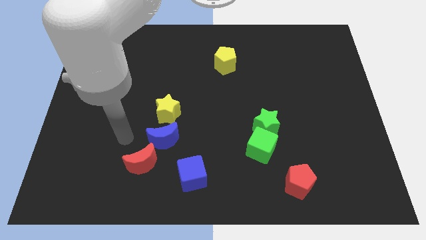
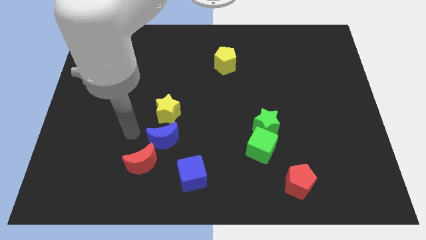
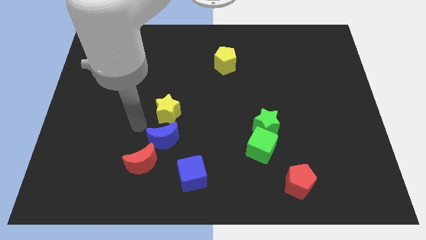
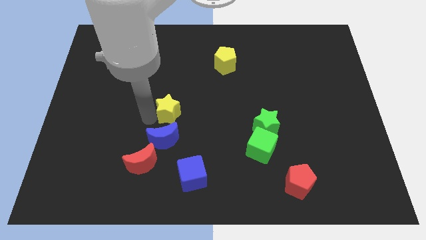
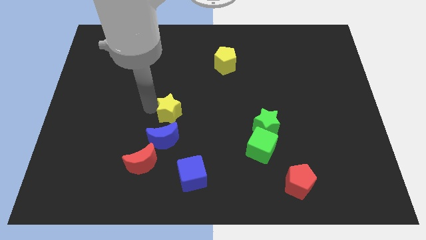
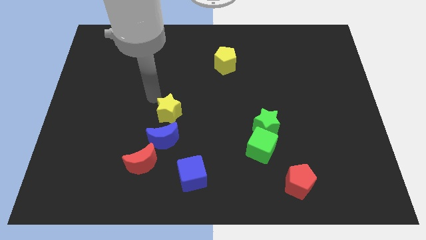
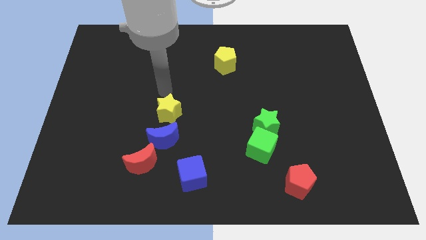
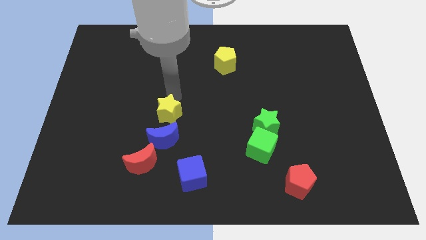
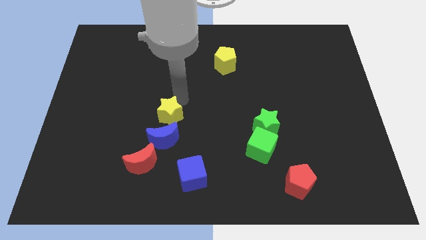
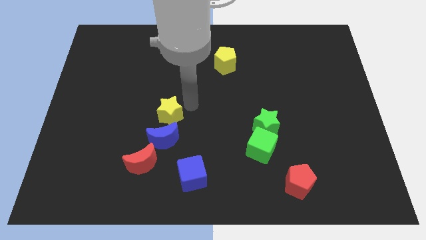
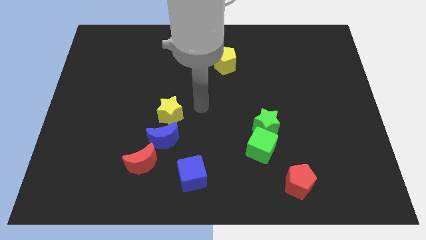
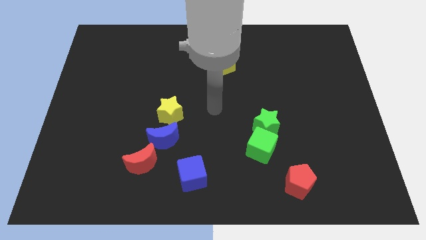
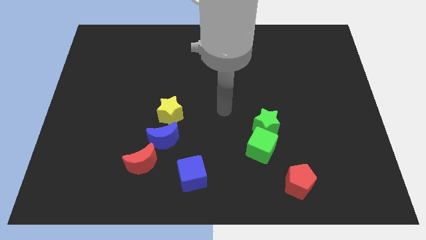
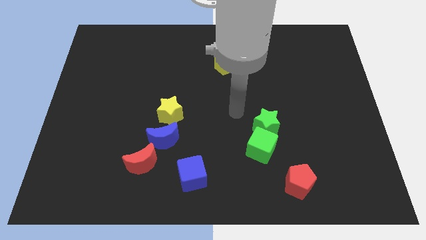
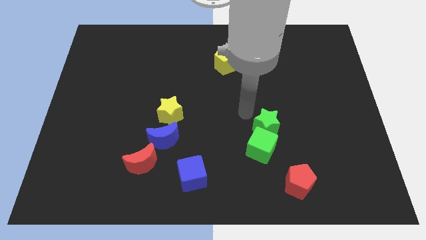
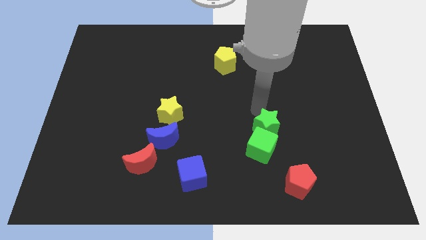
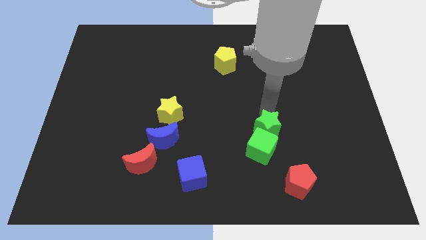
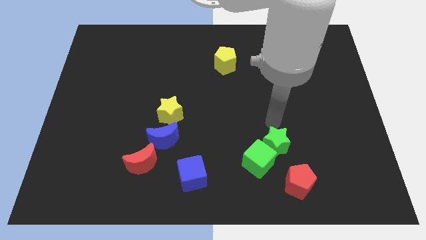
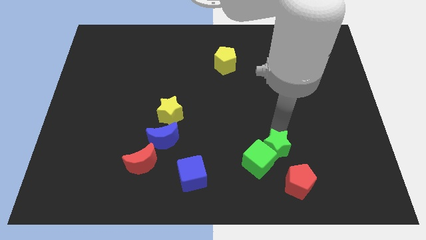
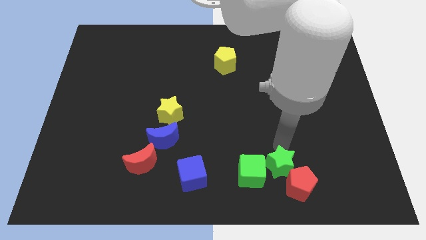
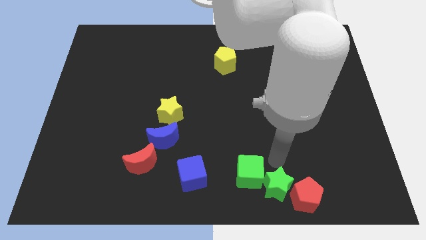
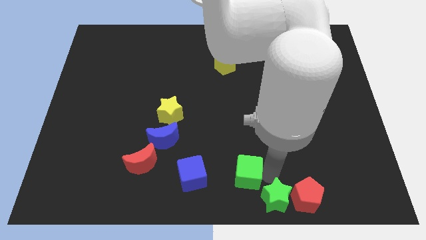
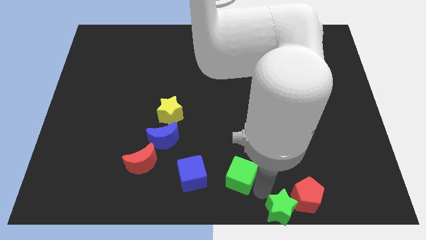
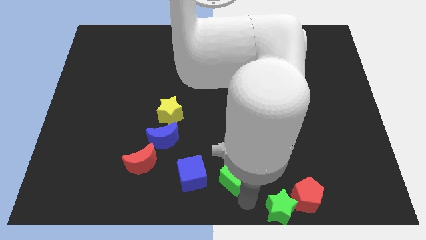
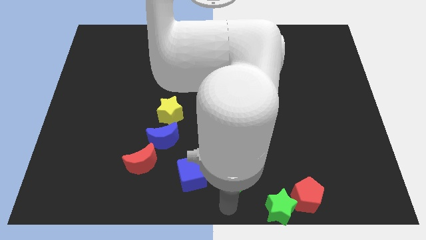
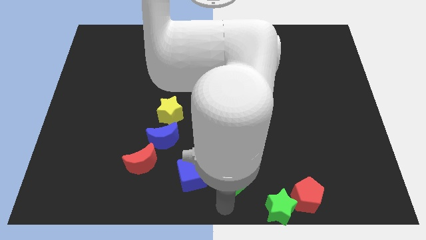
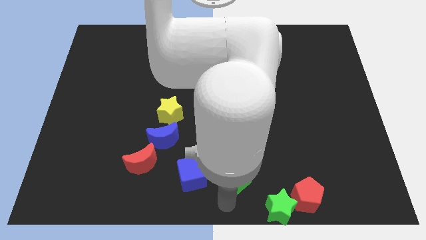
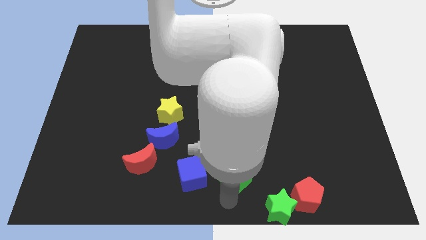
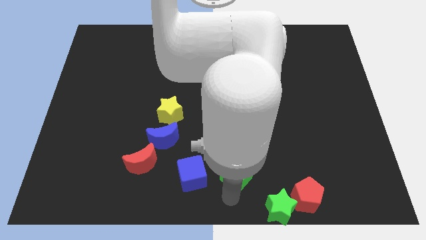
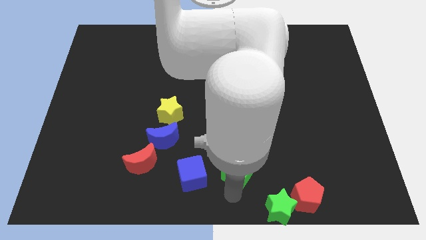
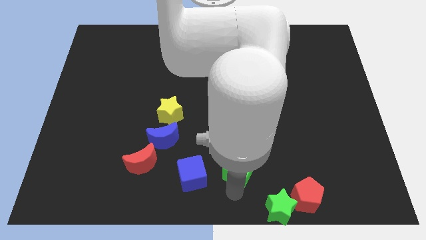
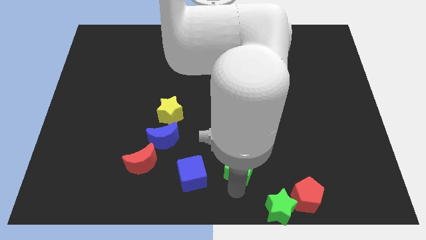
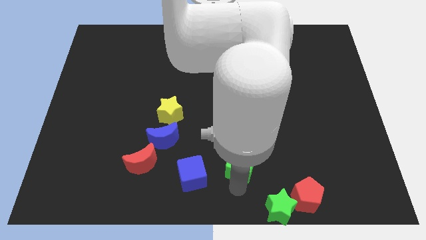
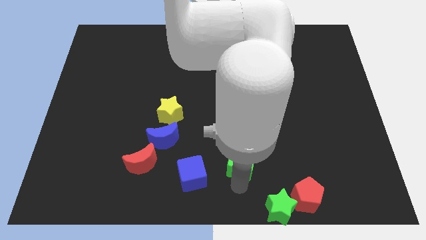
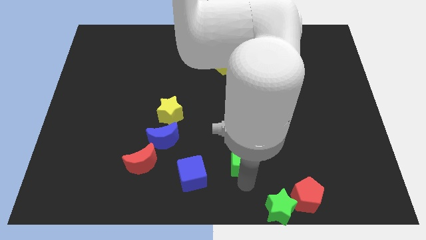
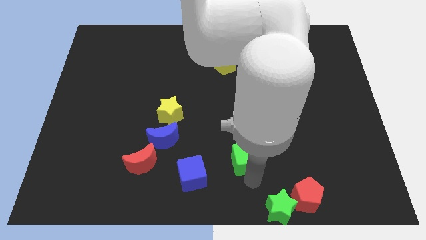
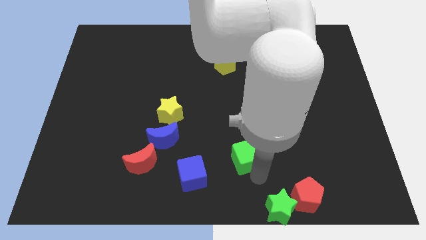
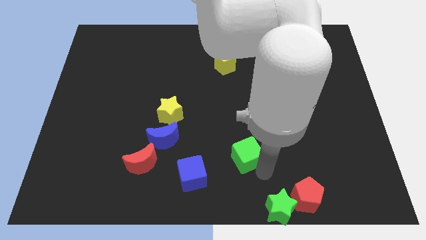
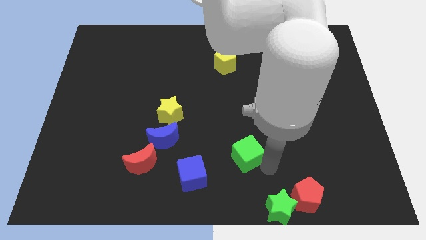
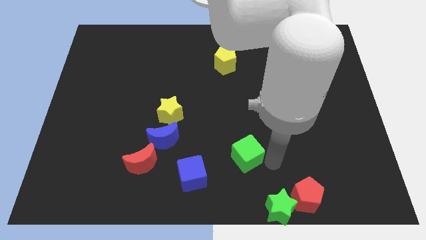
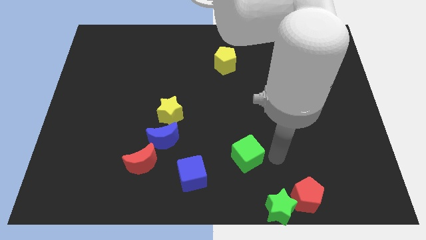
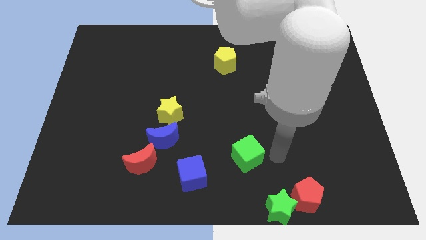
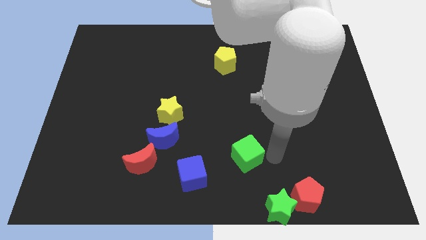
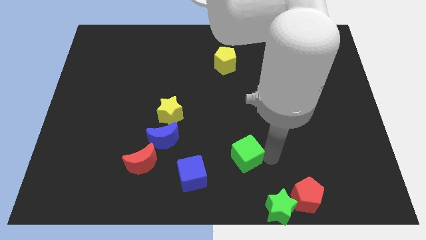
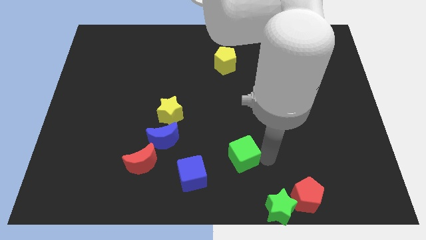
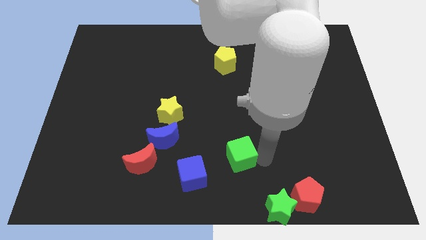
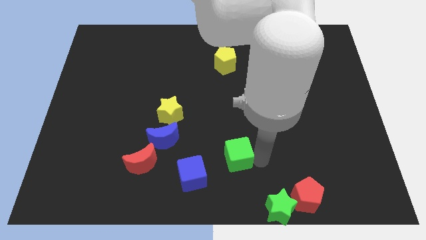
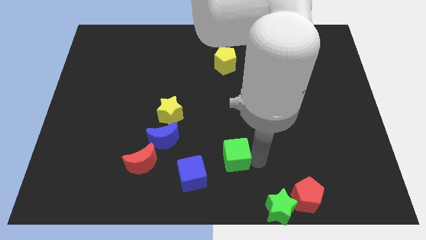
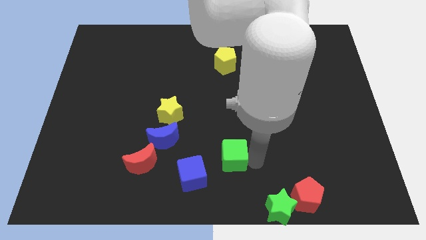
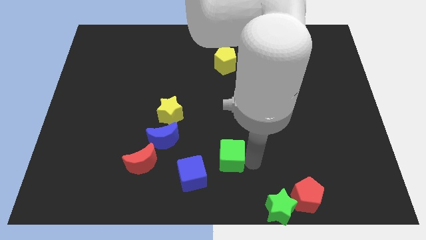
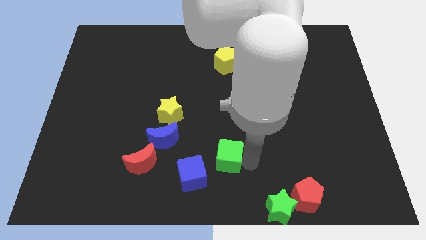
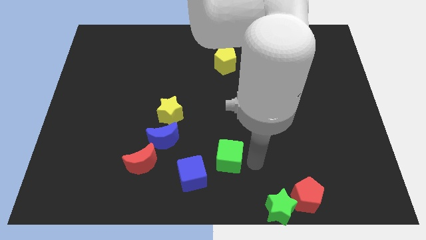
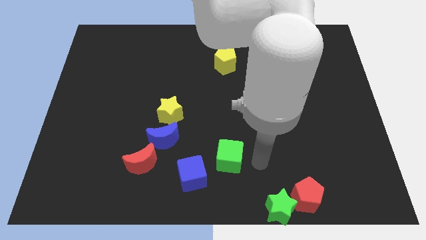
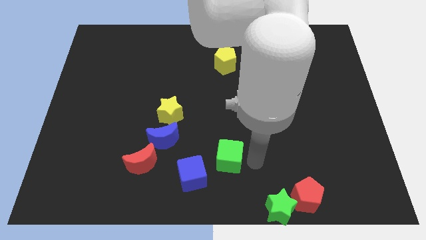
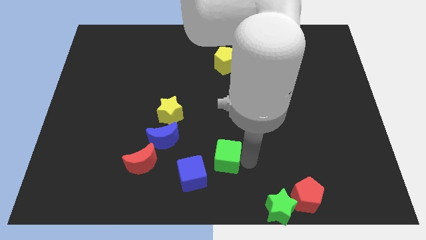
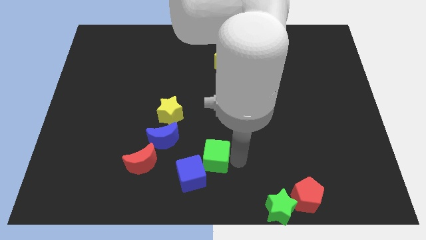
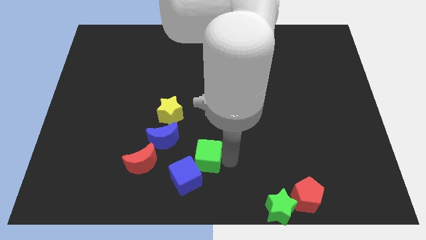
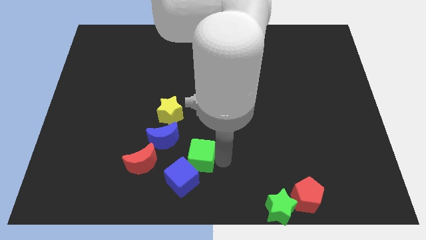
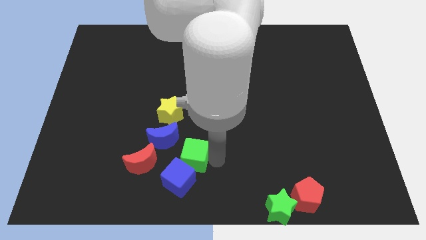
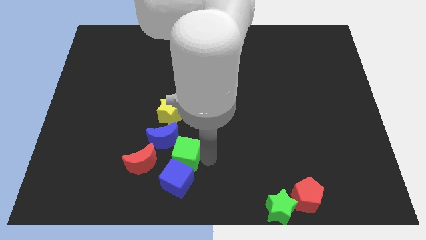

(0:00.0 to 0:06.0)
slide the green cube to the bottom side of the yellow star

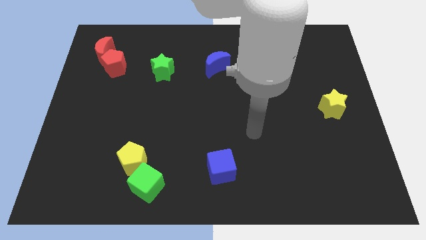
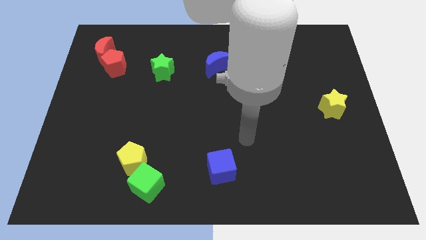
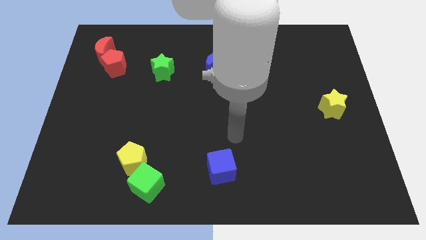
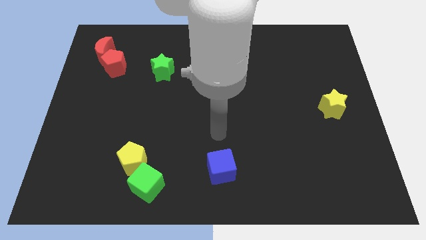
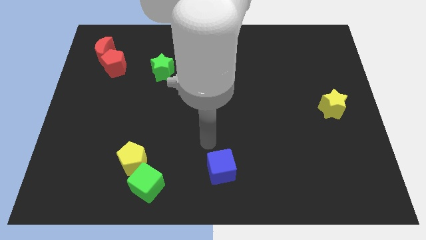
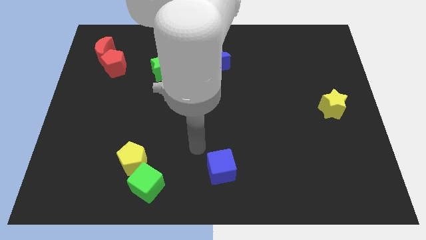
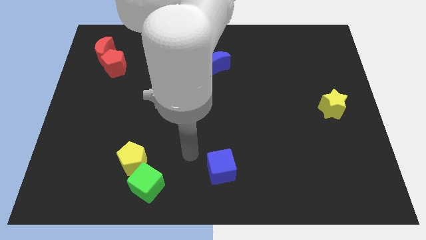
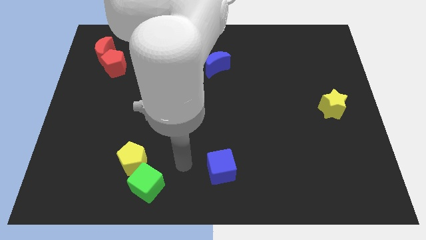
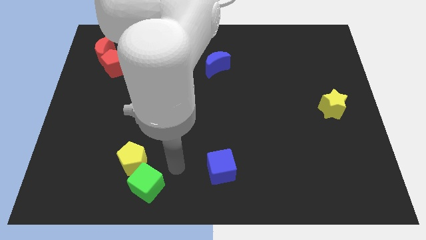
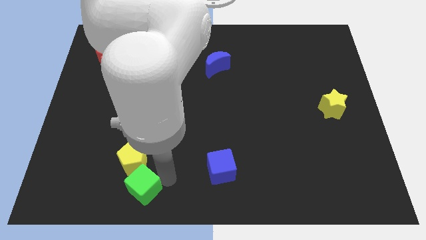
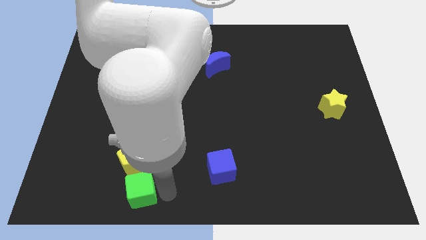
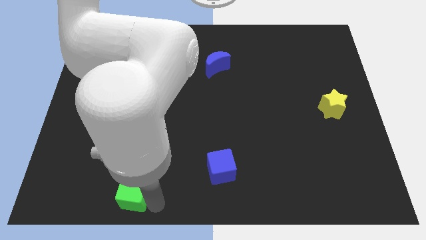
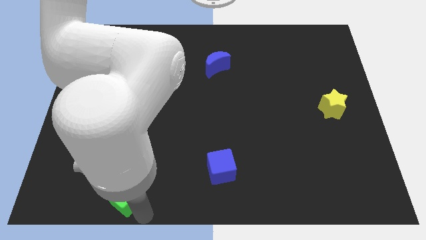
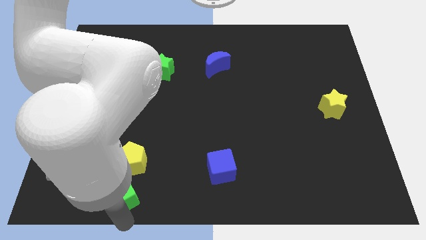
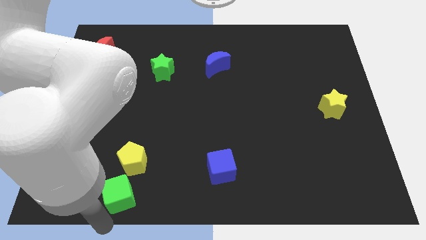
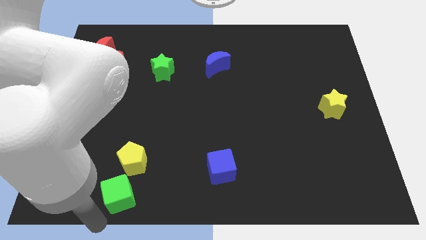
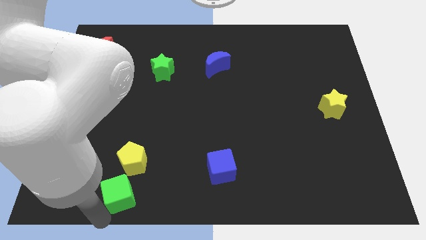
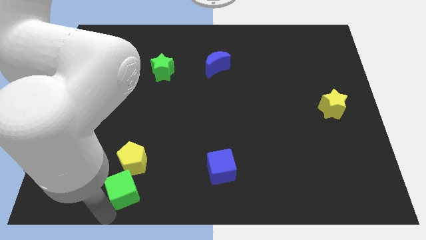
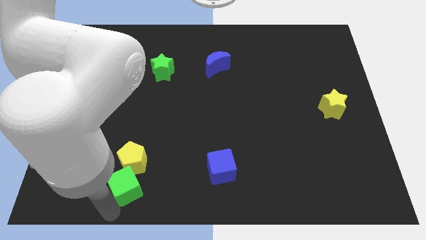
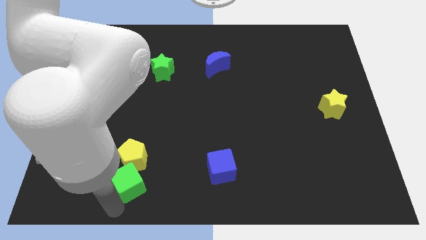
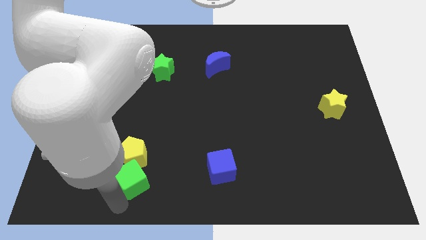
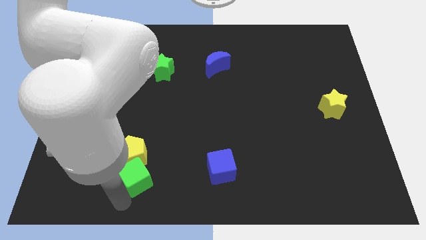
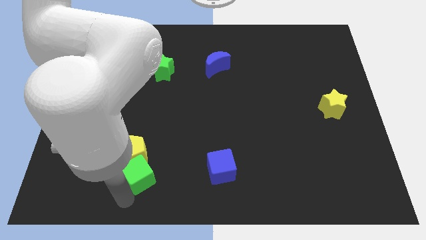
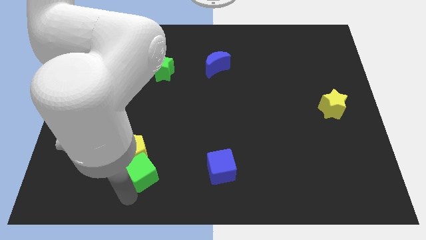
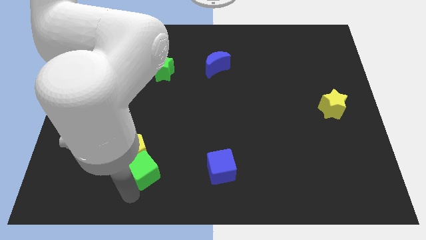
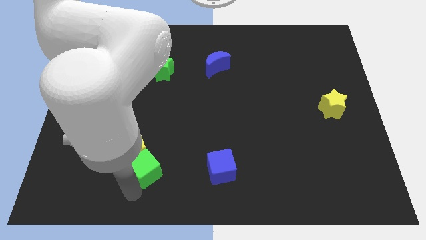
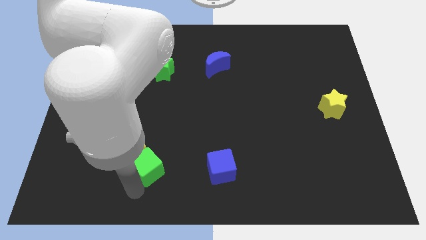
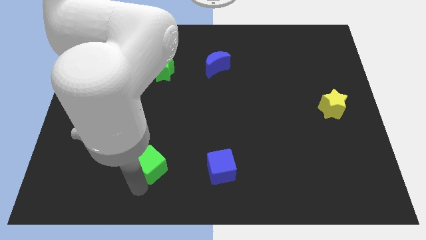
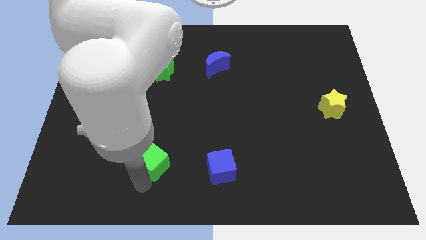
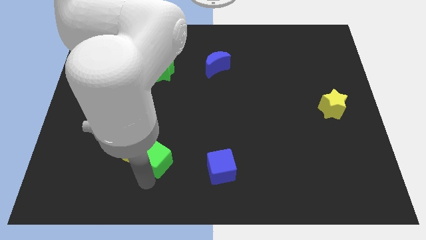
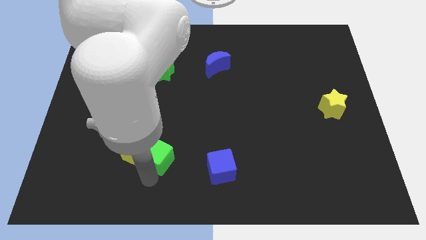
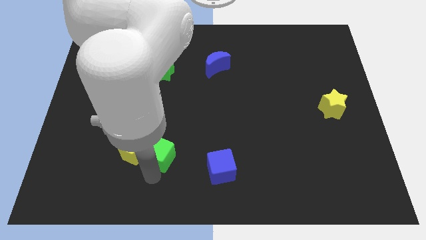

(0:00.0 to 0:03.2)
put the green cube diagonally up and to the right of the yellow pentagon
